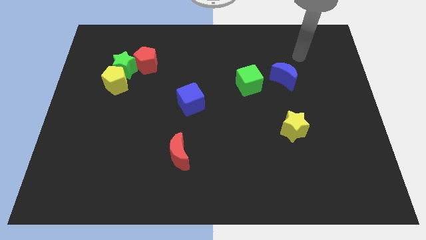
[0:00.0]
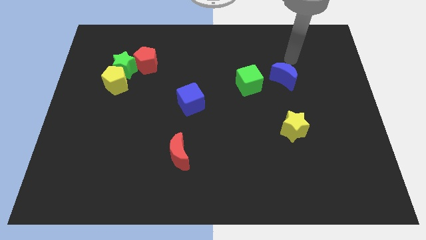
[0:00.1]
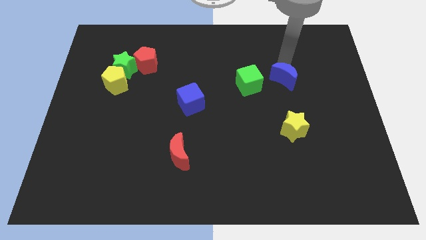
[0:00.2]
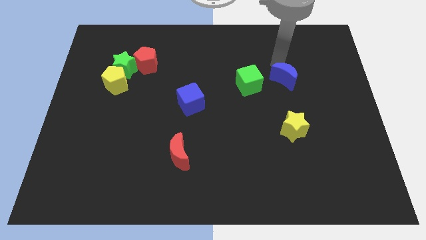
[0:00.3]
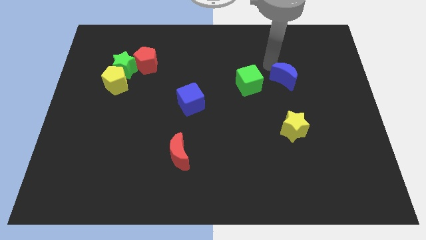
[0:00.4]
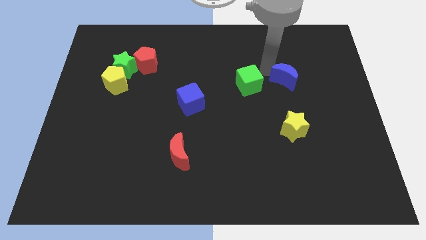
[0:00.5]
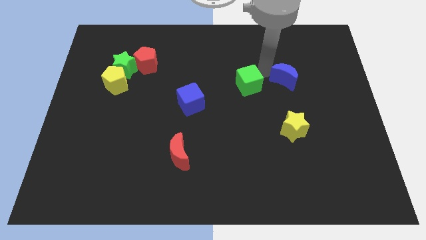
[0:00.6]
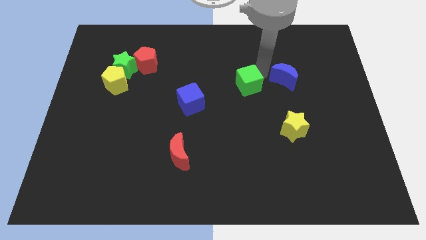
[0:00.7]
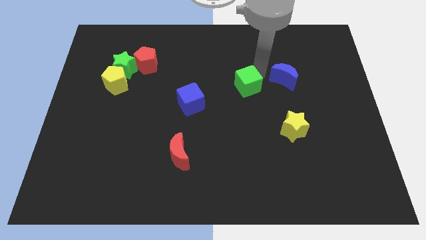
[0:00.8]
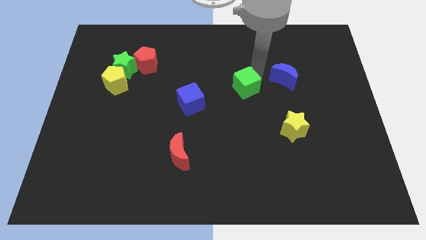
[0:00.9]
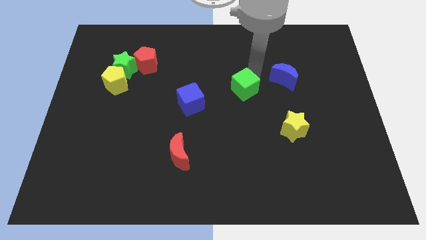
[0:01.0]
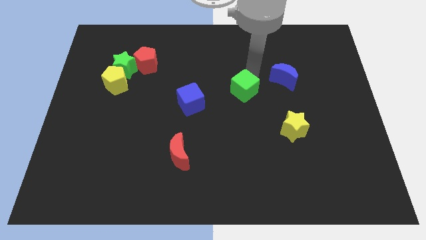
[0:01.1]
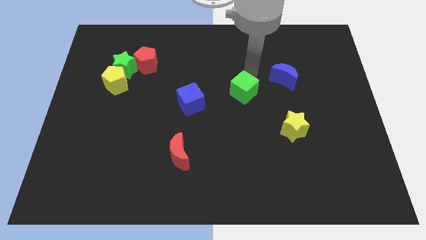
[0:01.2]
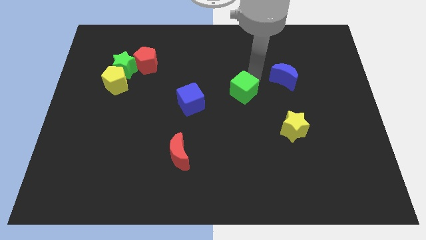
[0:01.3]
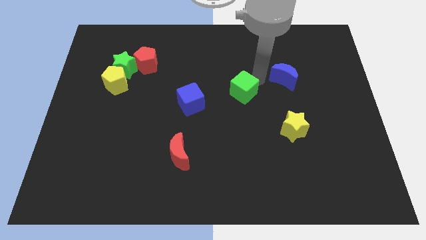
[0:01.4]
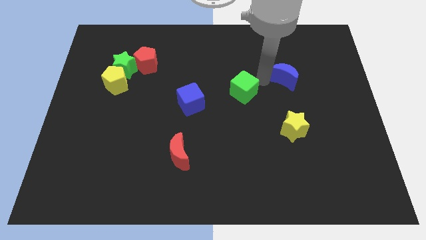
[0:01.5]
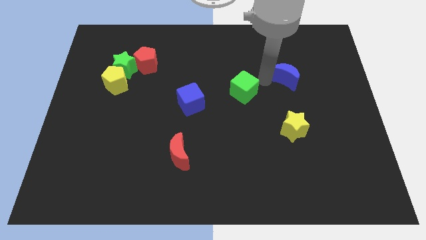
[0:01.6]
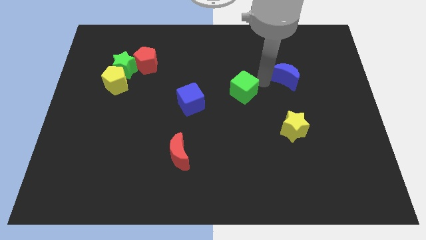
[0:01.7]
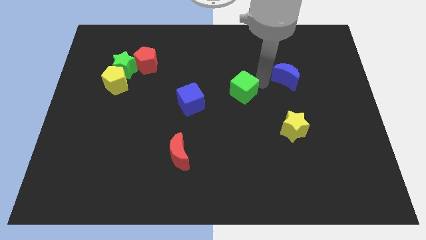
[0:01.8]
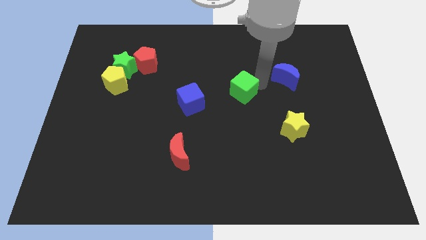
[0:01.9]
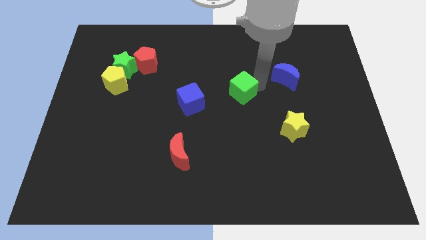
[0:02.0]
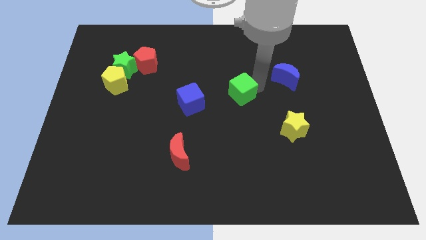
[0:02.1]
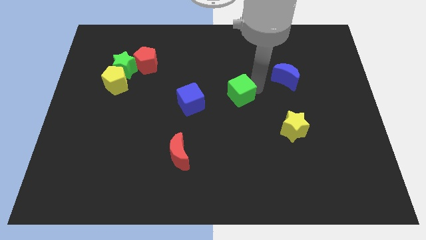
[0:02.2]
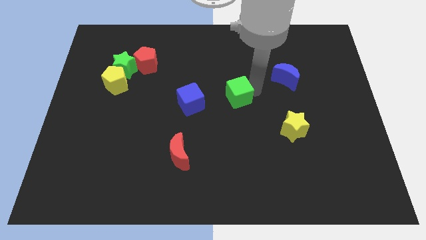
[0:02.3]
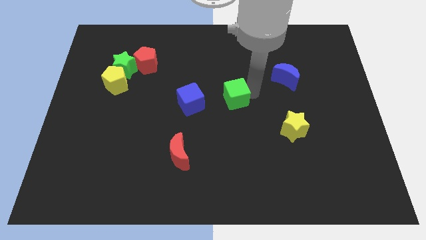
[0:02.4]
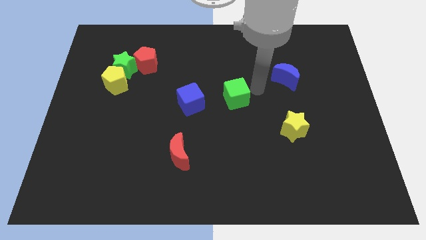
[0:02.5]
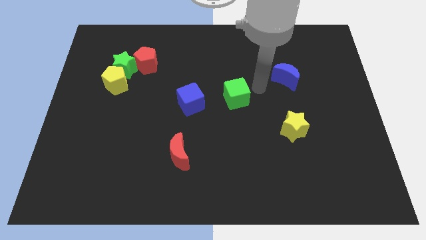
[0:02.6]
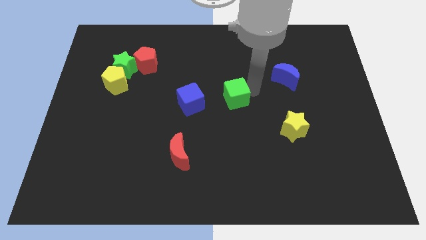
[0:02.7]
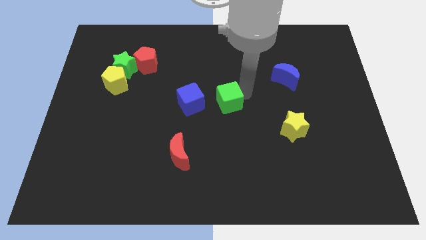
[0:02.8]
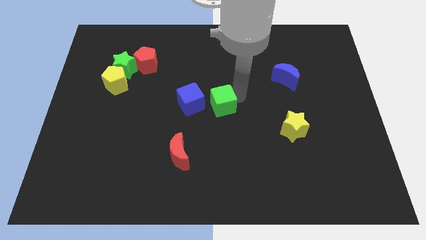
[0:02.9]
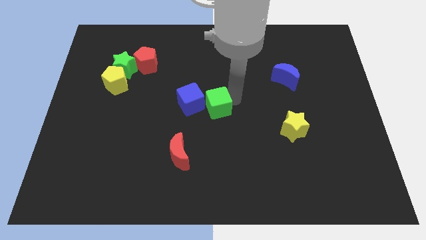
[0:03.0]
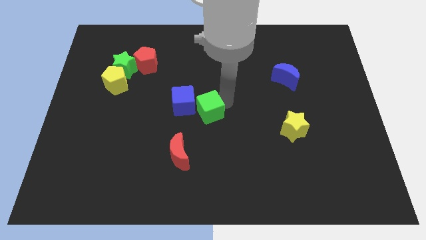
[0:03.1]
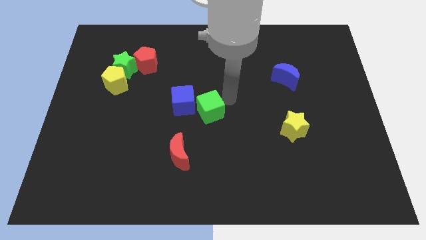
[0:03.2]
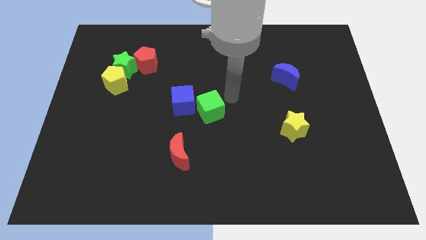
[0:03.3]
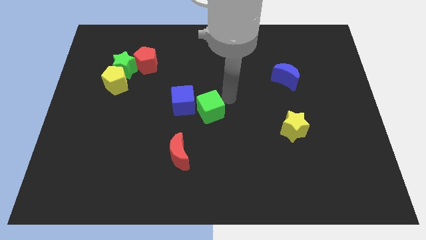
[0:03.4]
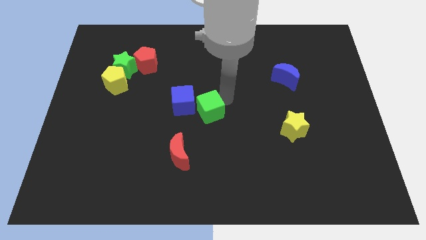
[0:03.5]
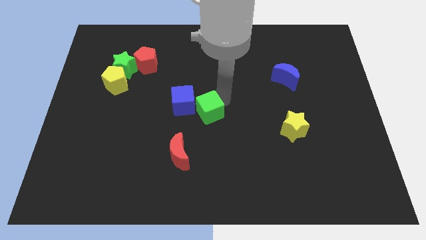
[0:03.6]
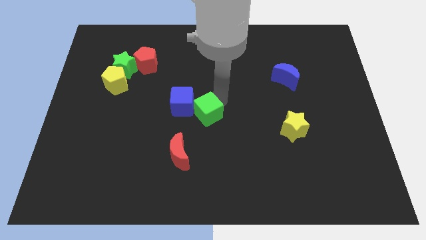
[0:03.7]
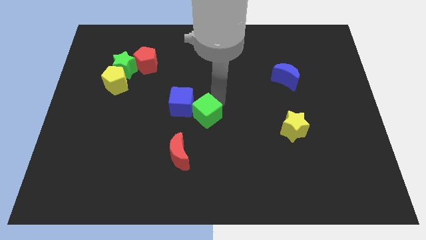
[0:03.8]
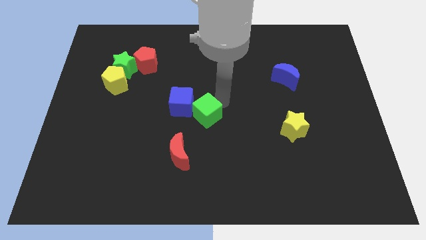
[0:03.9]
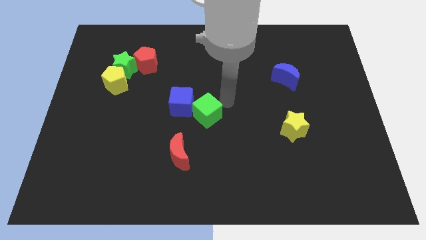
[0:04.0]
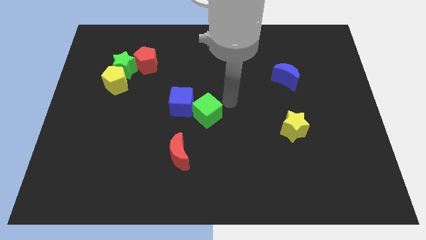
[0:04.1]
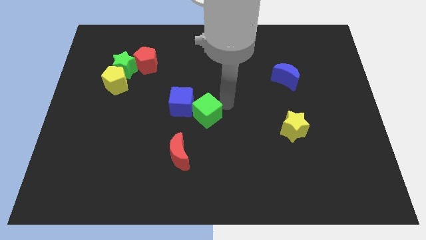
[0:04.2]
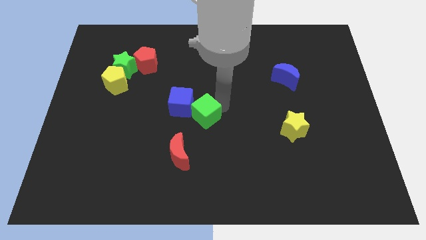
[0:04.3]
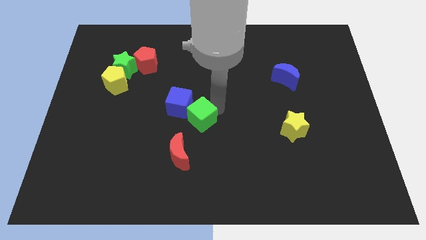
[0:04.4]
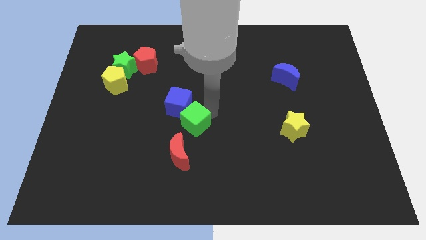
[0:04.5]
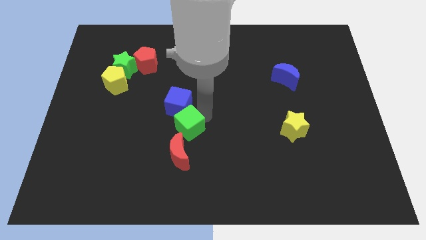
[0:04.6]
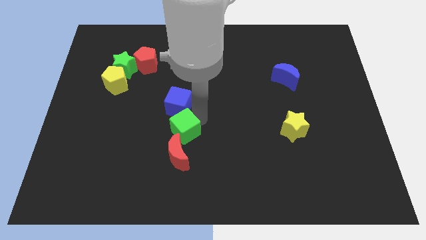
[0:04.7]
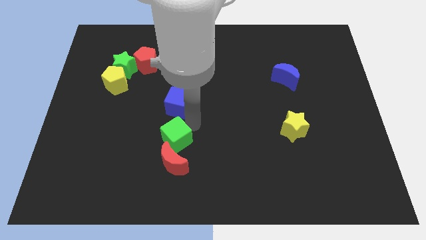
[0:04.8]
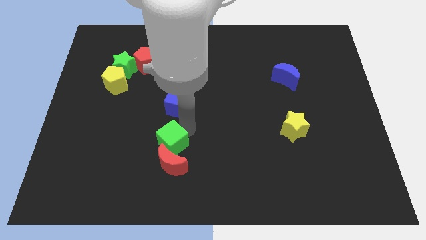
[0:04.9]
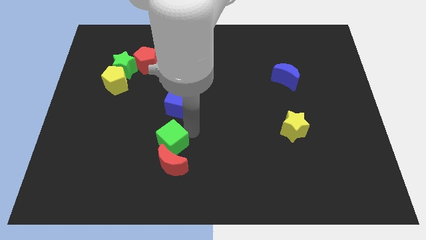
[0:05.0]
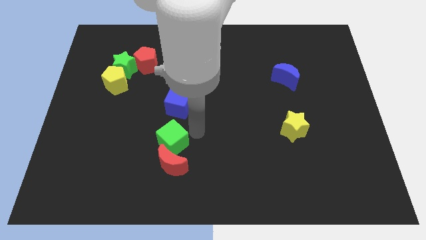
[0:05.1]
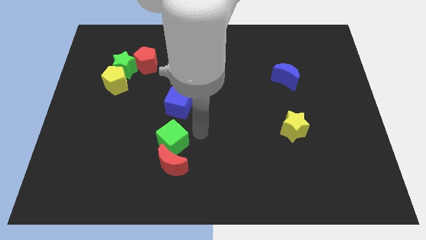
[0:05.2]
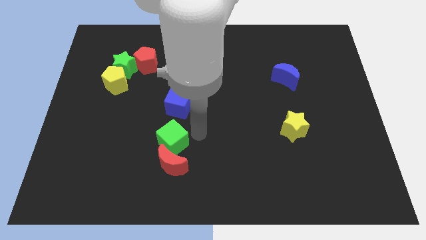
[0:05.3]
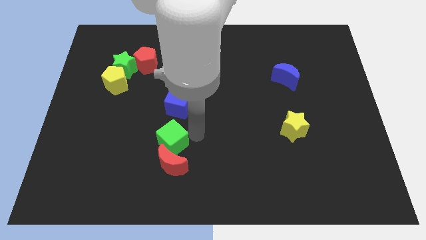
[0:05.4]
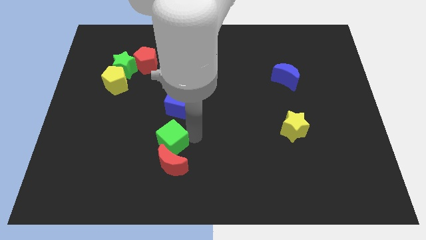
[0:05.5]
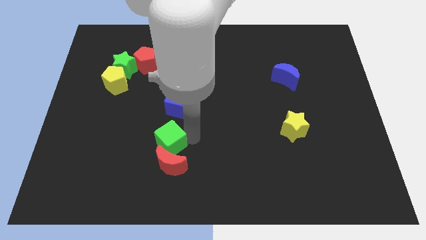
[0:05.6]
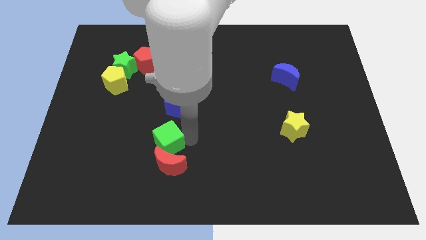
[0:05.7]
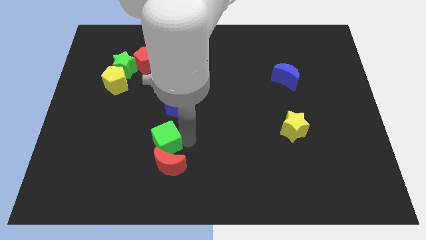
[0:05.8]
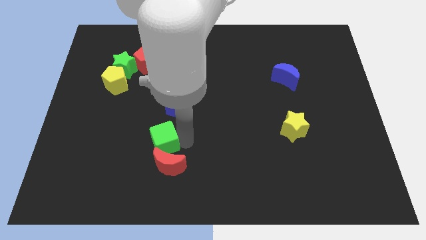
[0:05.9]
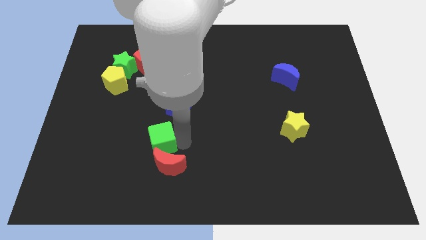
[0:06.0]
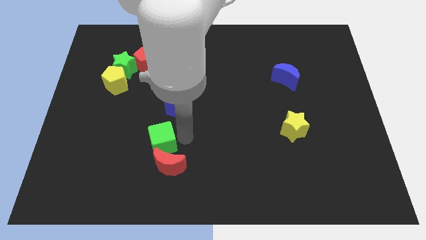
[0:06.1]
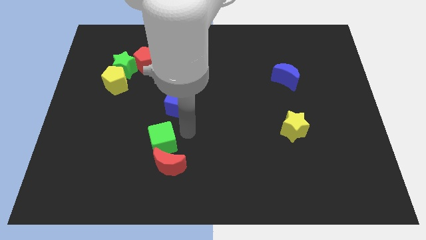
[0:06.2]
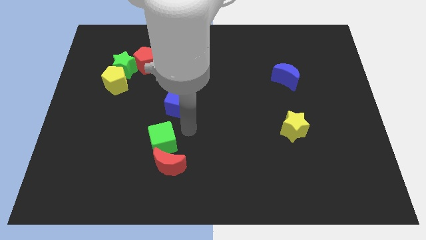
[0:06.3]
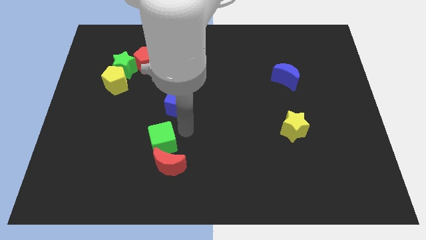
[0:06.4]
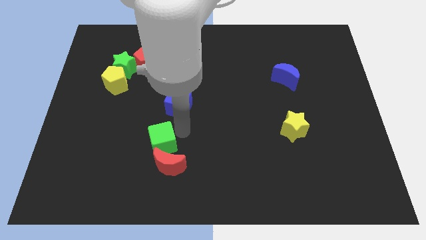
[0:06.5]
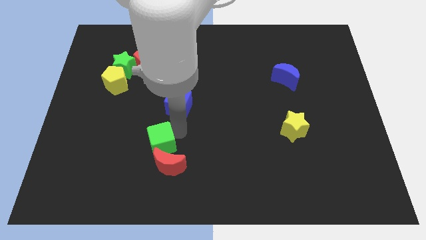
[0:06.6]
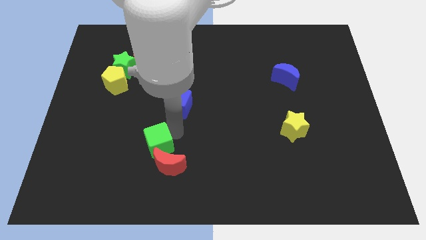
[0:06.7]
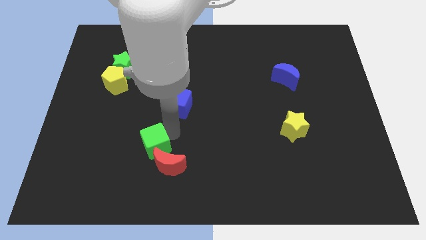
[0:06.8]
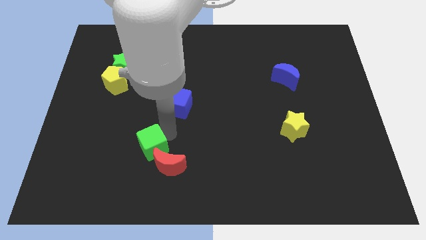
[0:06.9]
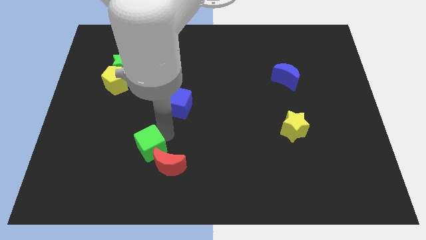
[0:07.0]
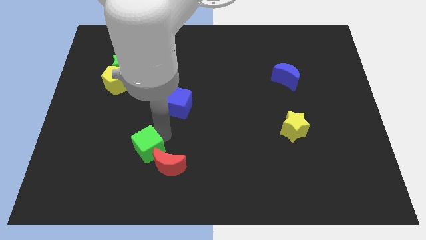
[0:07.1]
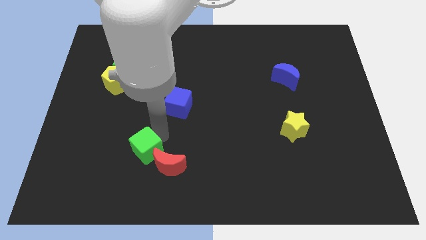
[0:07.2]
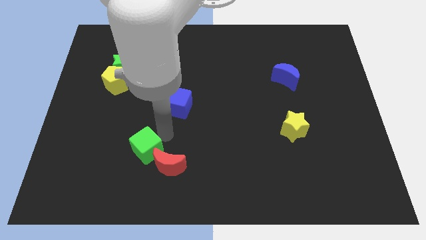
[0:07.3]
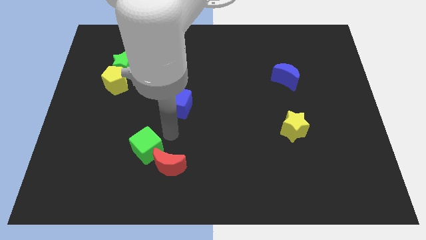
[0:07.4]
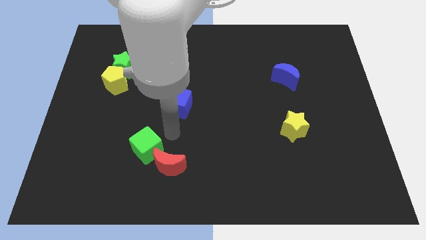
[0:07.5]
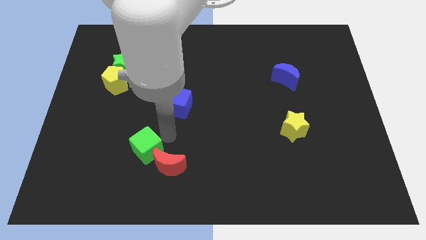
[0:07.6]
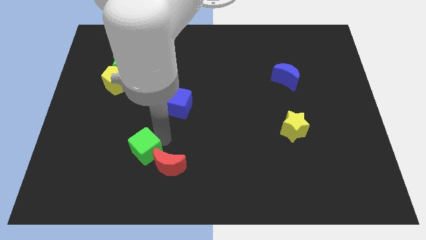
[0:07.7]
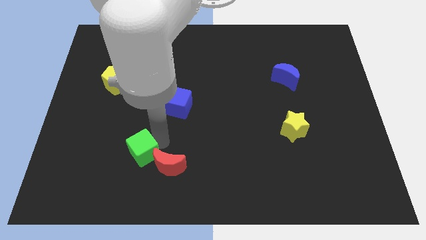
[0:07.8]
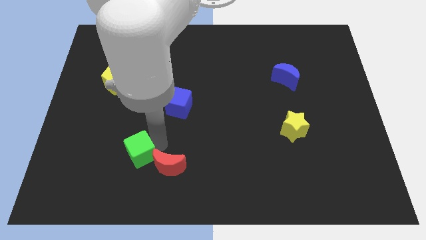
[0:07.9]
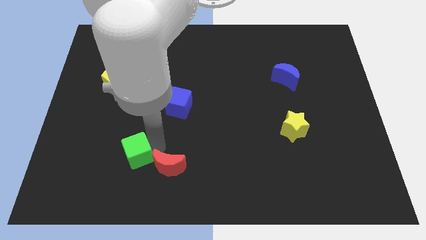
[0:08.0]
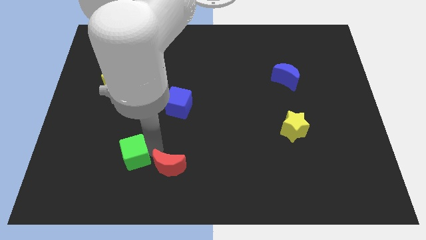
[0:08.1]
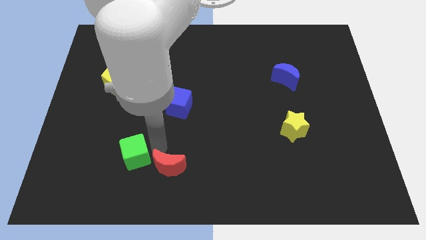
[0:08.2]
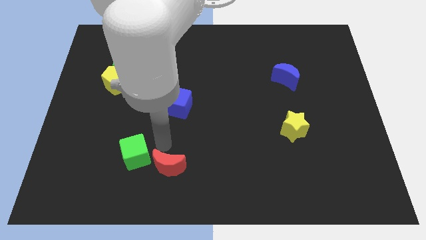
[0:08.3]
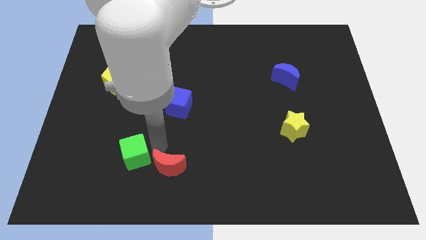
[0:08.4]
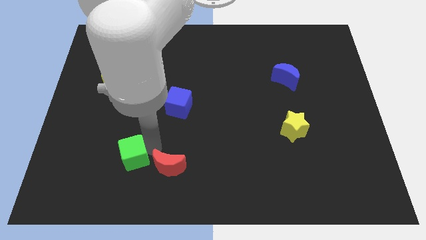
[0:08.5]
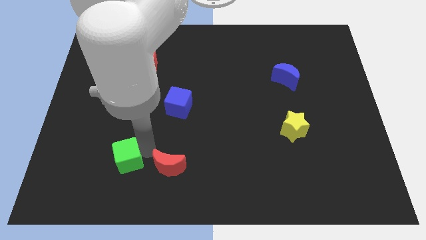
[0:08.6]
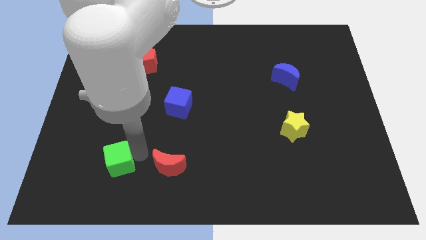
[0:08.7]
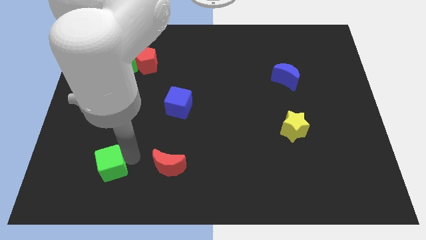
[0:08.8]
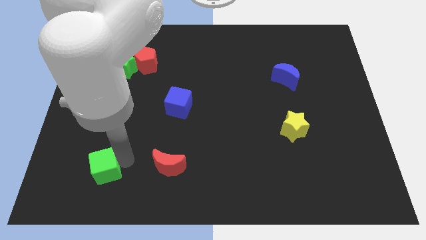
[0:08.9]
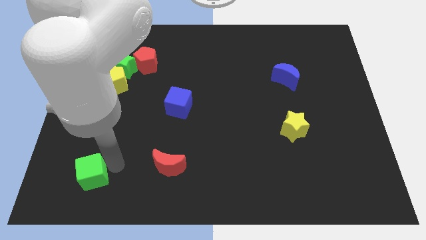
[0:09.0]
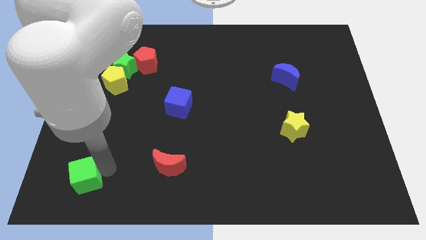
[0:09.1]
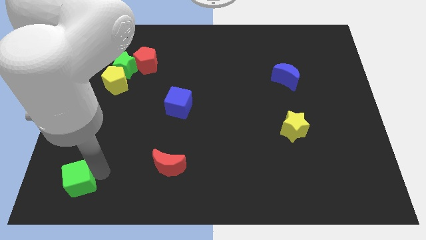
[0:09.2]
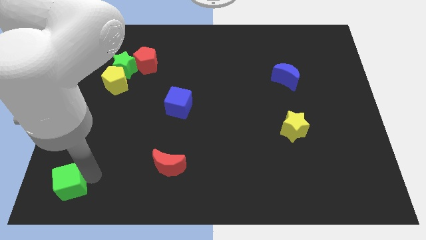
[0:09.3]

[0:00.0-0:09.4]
slide the green cube to the bottom left
